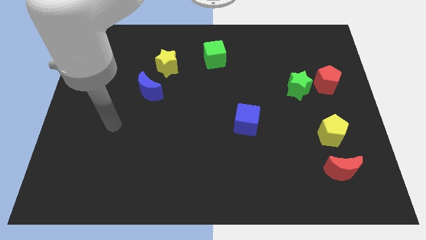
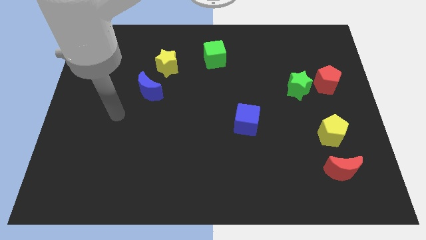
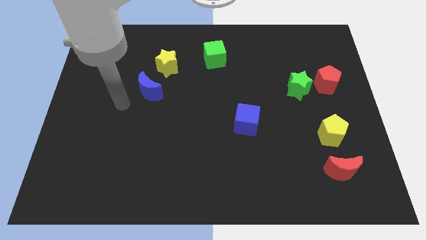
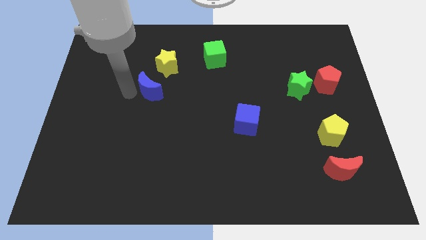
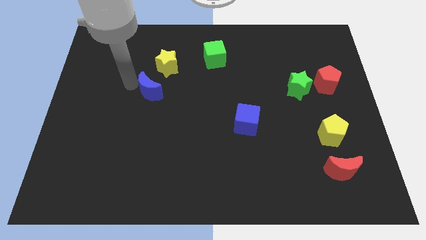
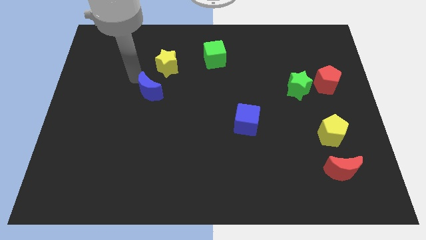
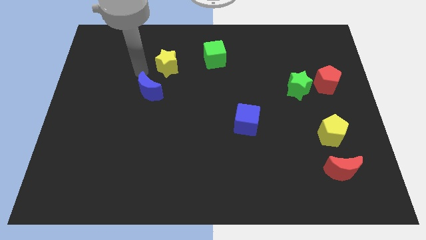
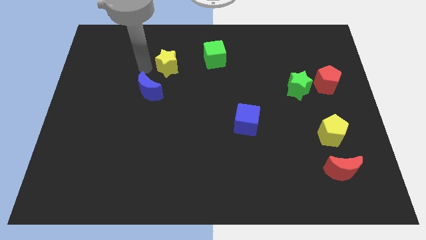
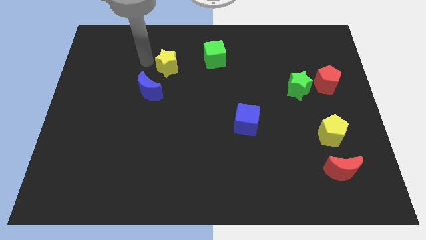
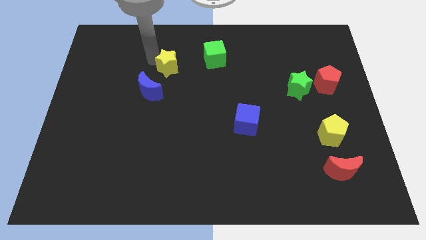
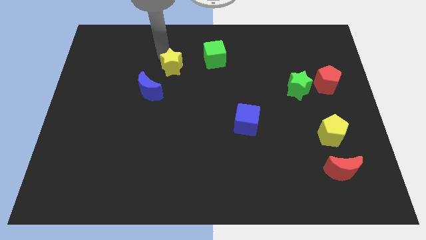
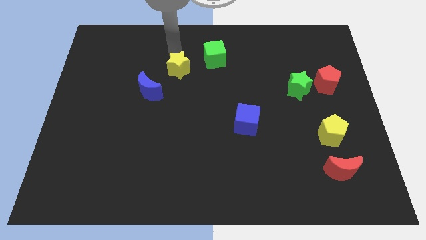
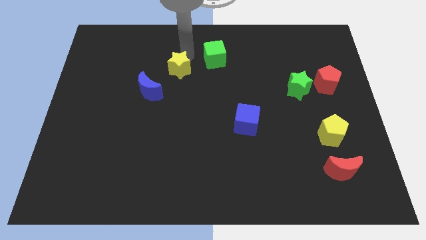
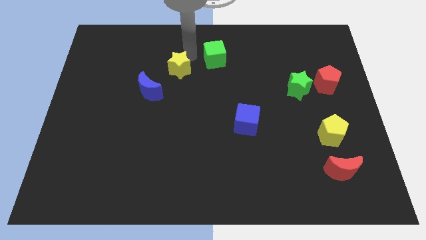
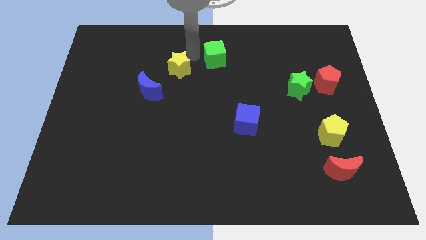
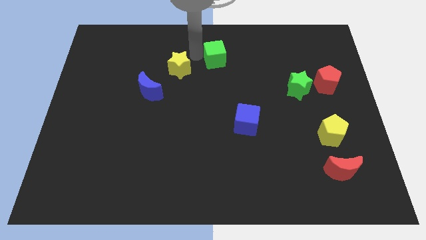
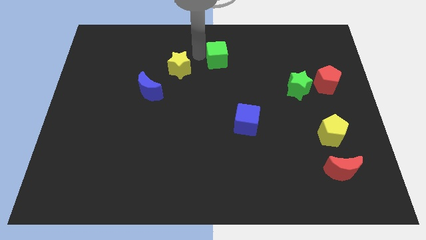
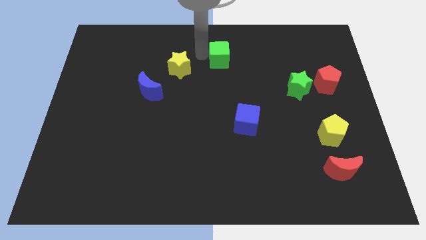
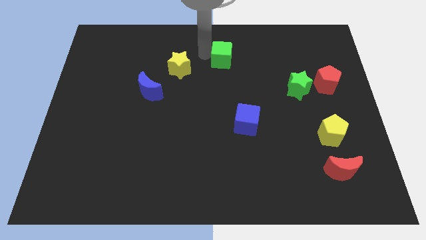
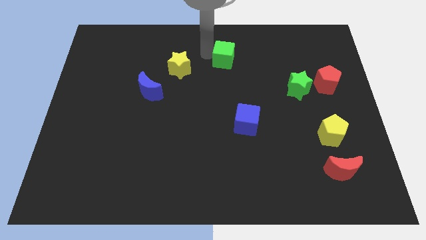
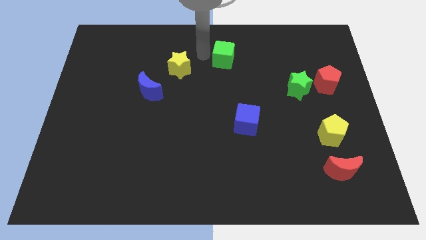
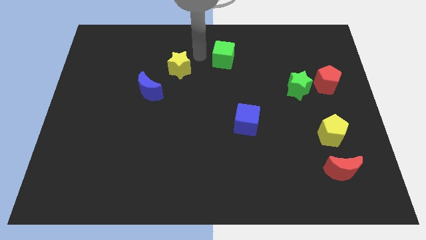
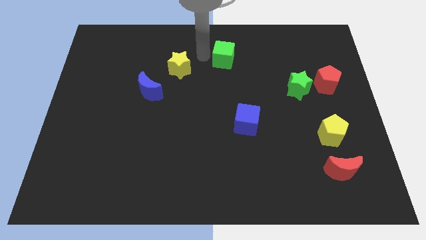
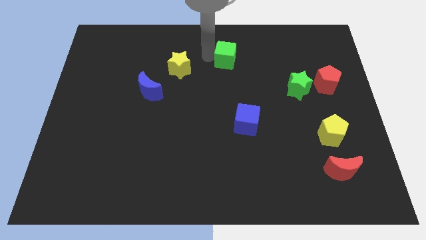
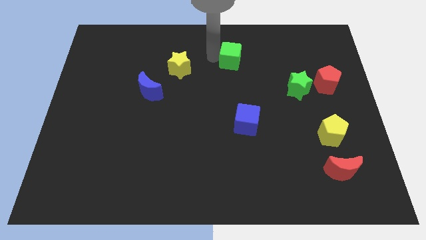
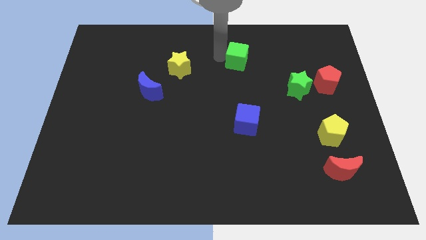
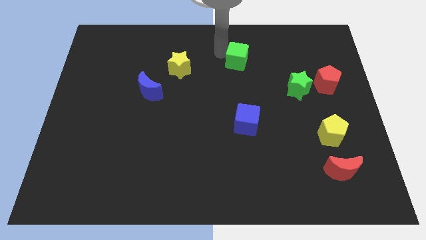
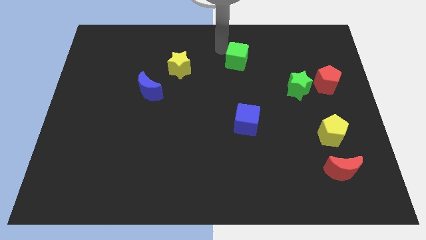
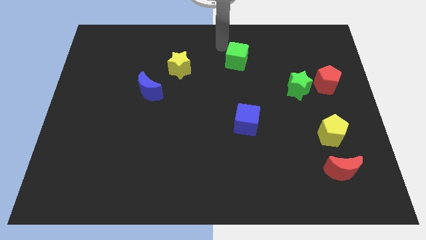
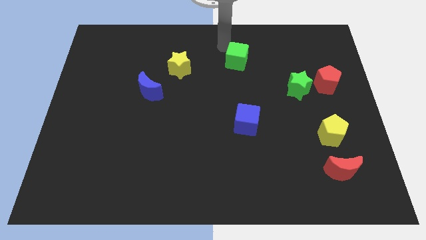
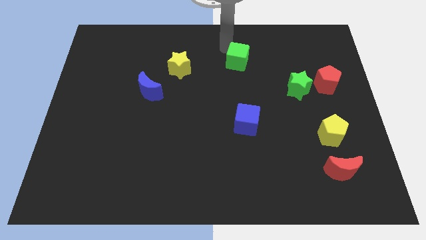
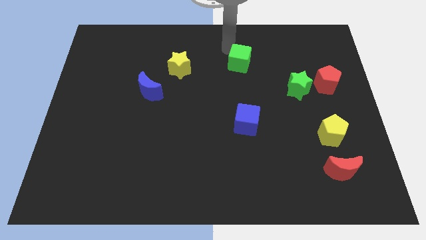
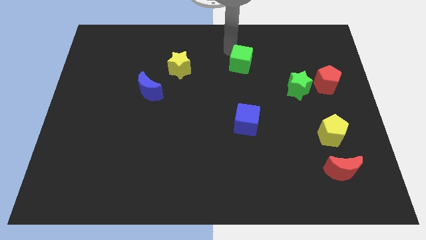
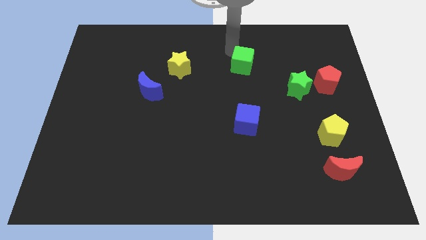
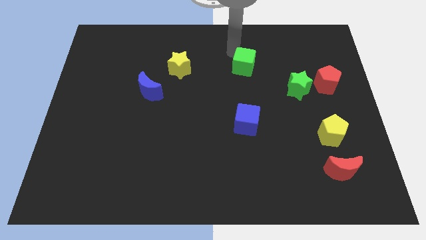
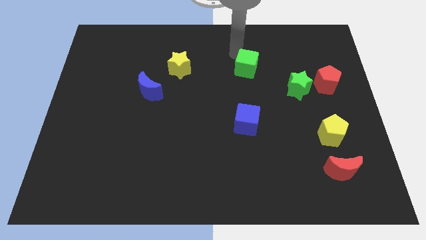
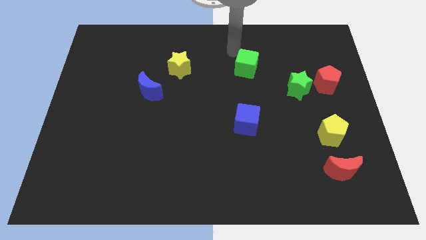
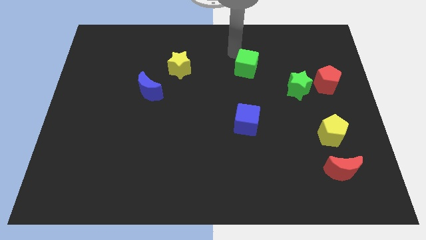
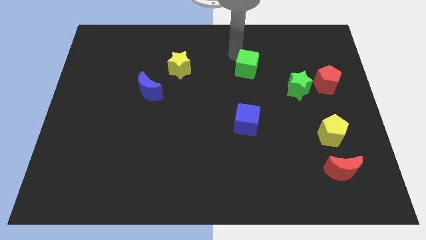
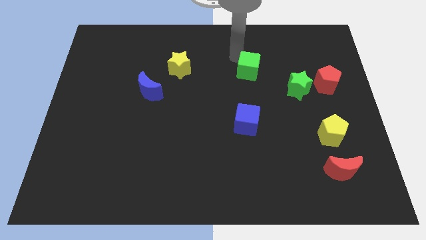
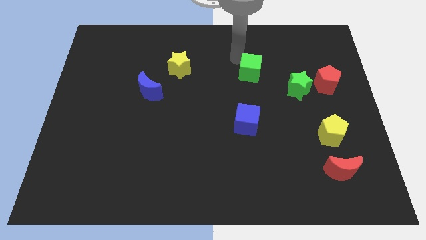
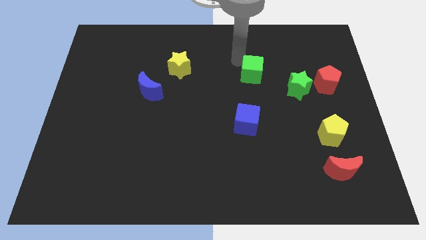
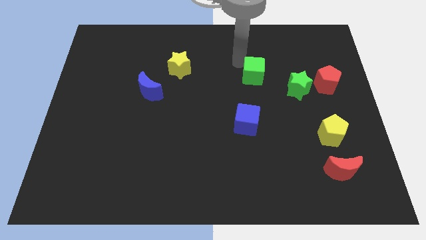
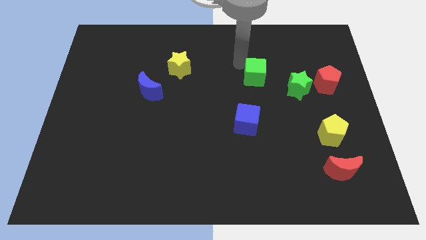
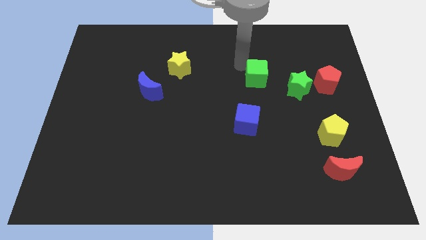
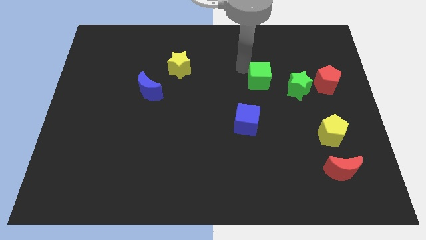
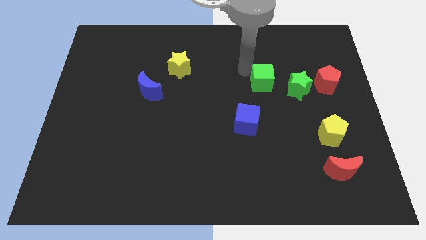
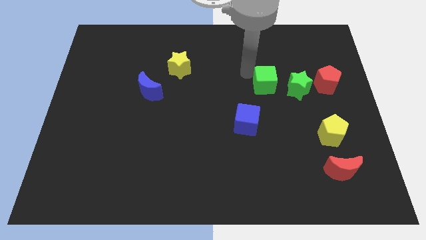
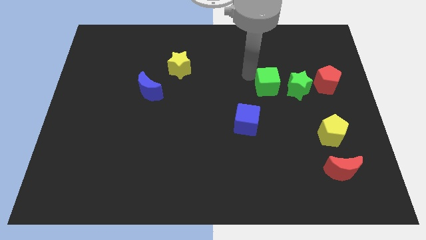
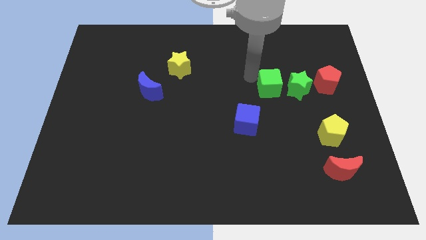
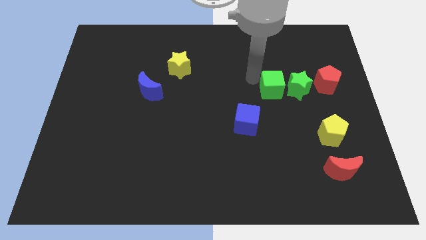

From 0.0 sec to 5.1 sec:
move the green cube to the bottom left of the green star

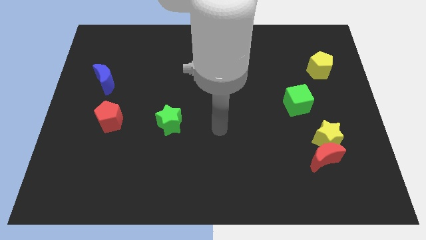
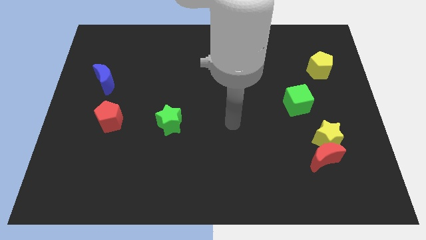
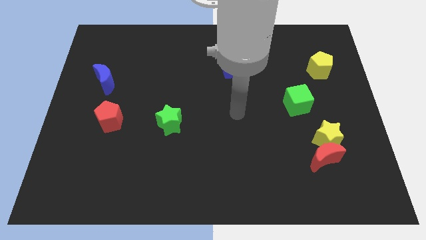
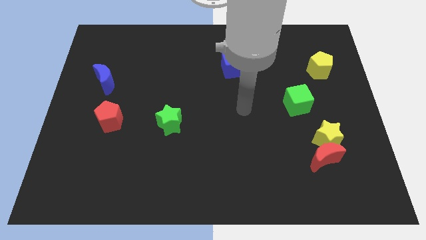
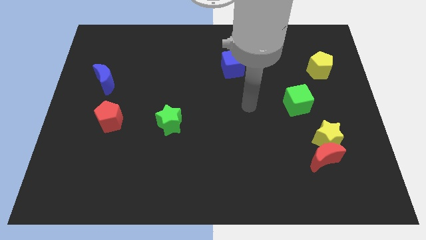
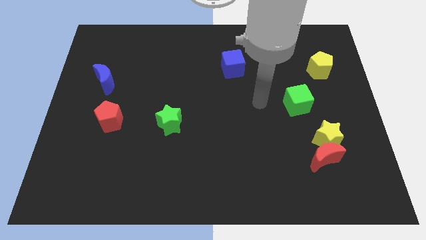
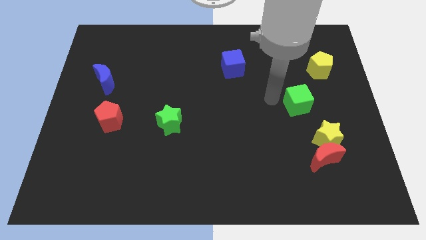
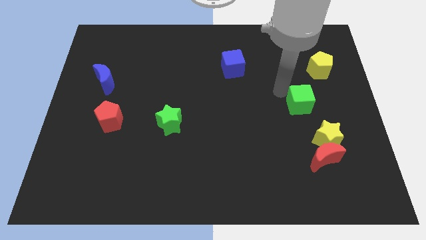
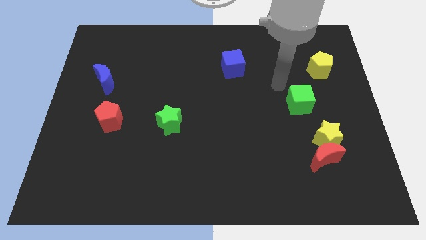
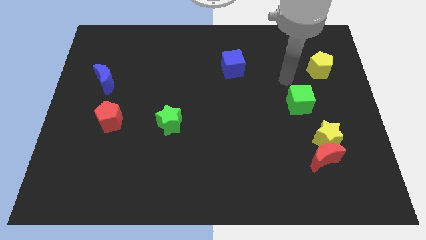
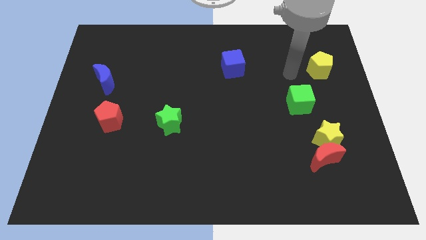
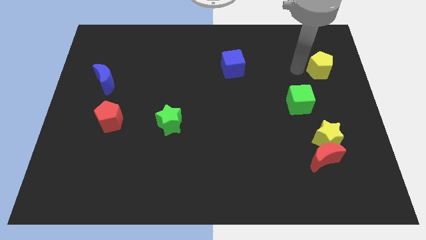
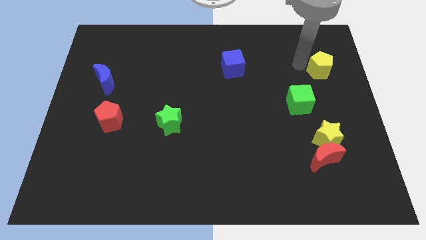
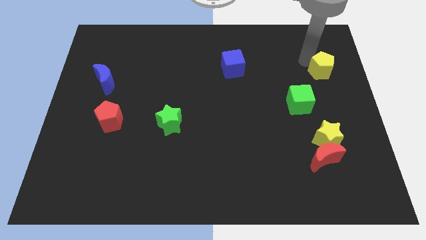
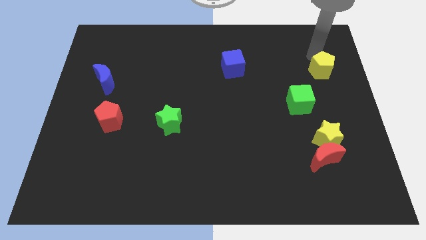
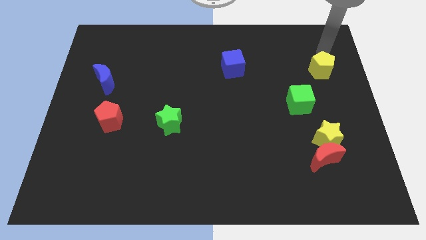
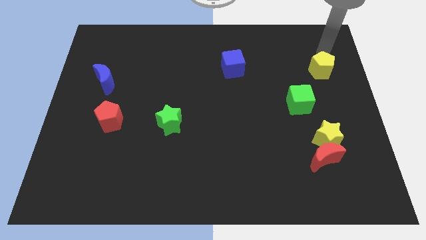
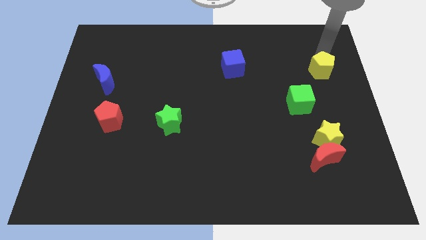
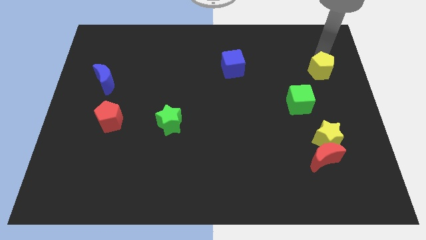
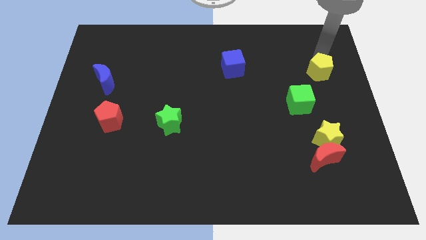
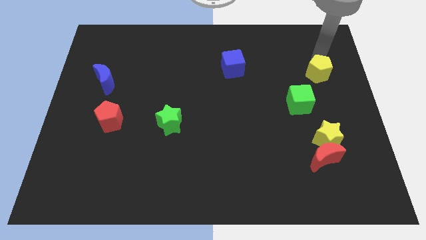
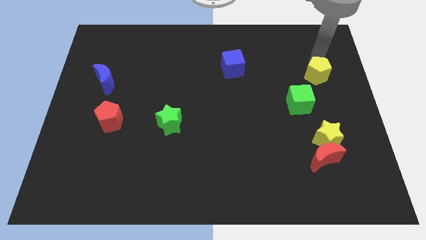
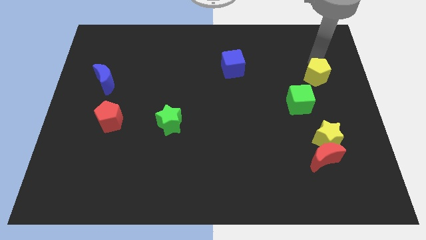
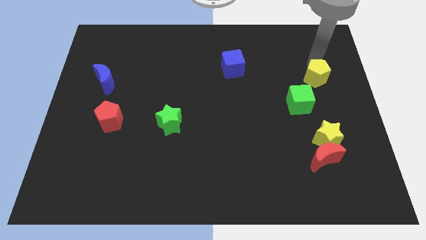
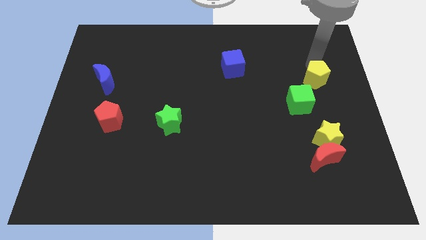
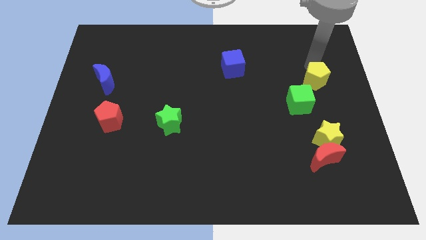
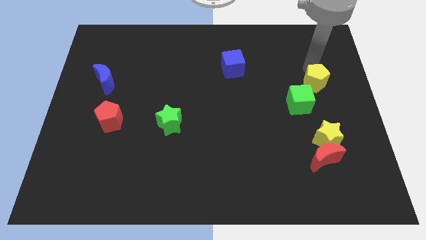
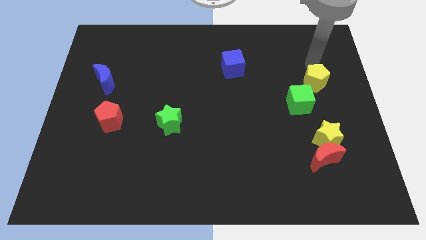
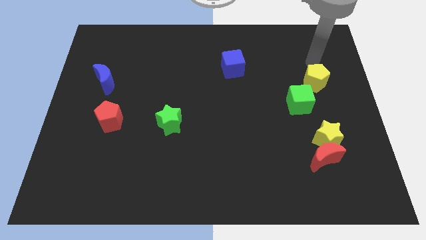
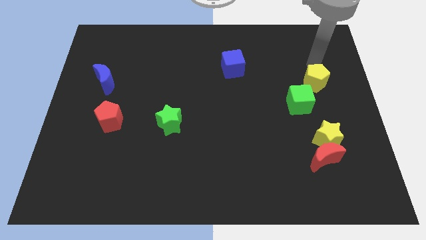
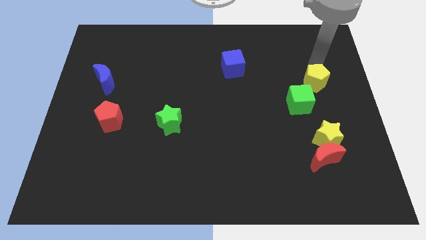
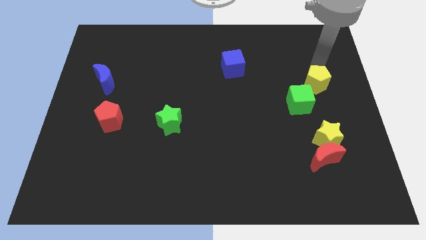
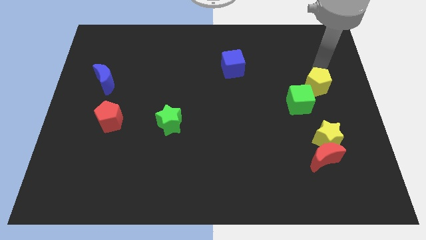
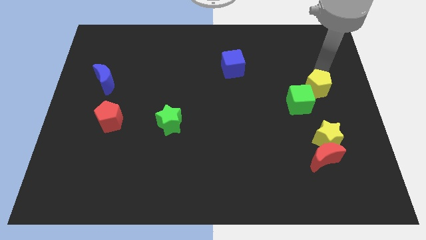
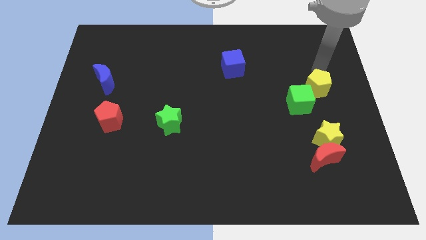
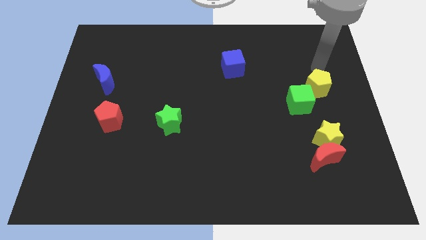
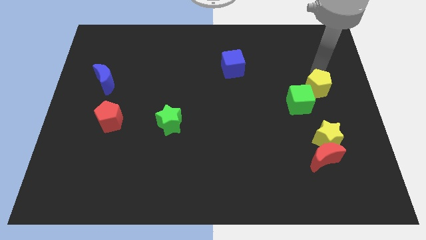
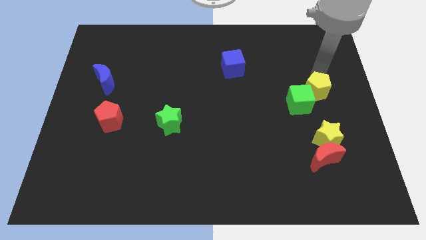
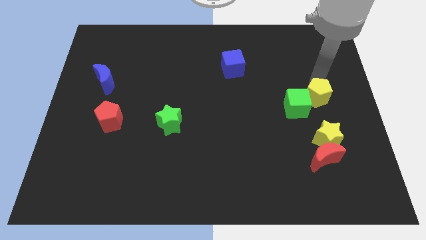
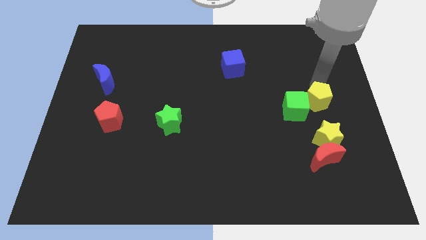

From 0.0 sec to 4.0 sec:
push the yellow pentagon above the red moon
